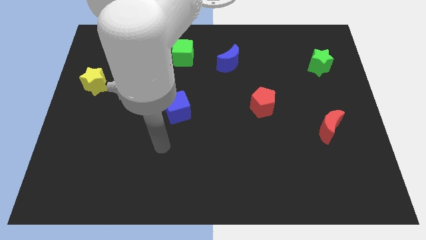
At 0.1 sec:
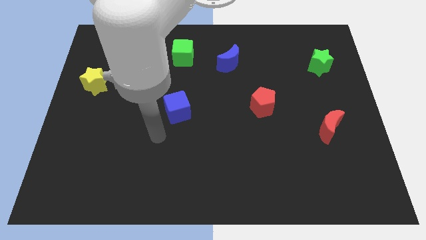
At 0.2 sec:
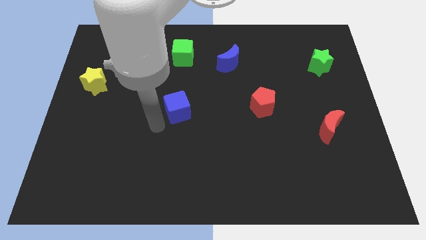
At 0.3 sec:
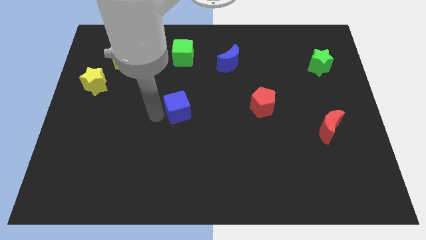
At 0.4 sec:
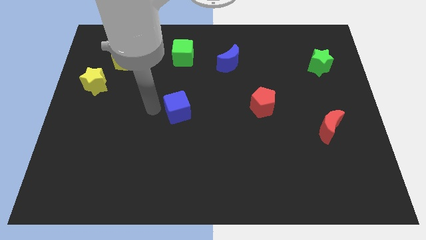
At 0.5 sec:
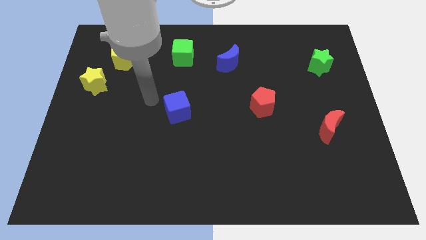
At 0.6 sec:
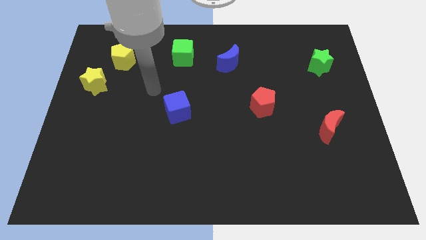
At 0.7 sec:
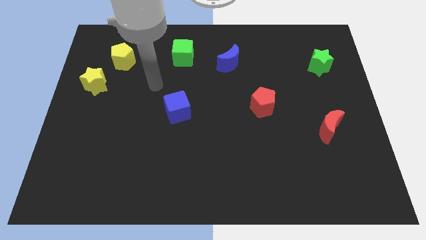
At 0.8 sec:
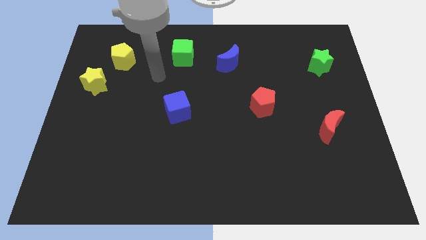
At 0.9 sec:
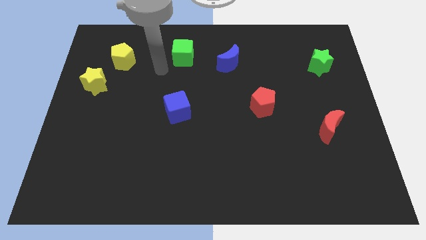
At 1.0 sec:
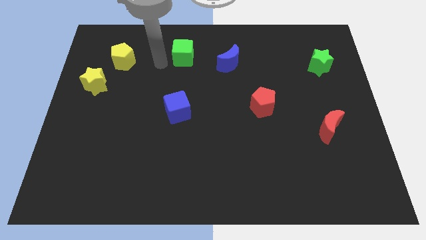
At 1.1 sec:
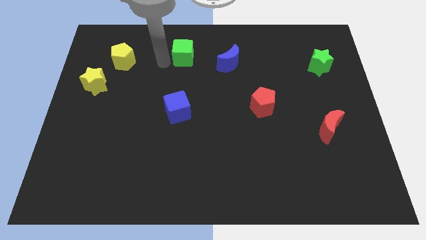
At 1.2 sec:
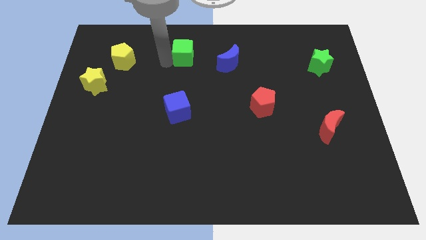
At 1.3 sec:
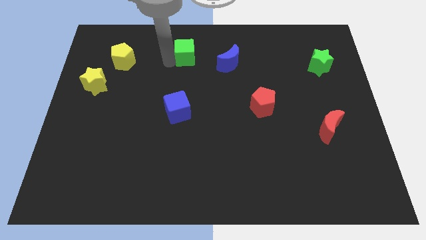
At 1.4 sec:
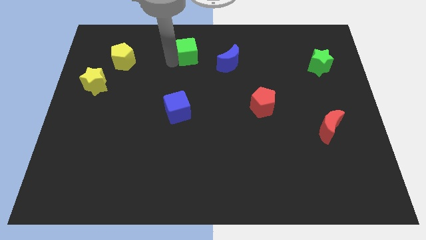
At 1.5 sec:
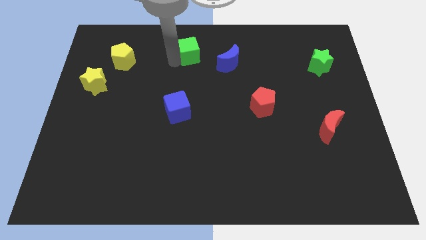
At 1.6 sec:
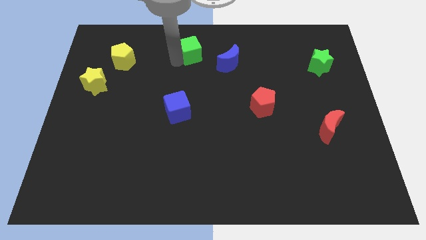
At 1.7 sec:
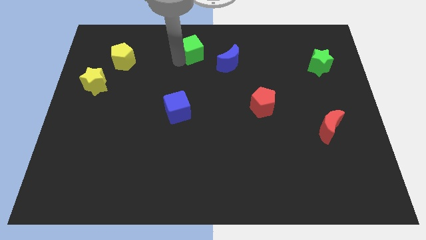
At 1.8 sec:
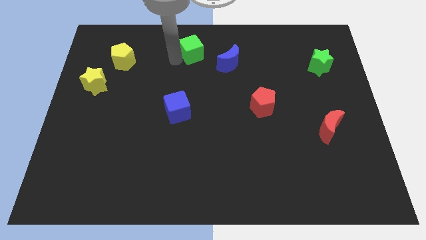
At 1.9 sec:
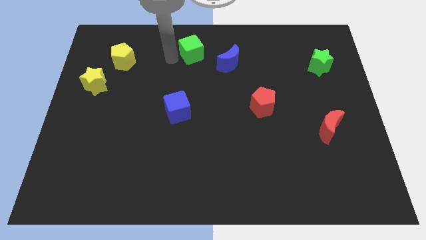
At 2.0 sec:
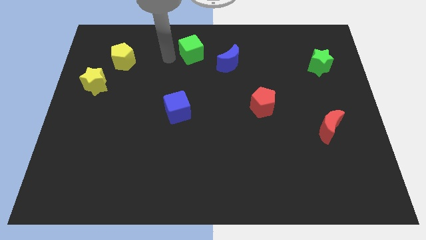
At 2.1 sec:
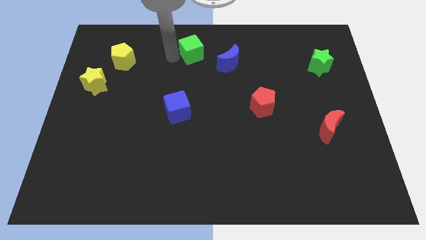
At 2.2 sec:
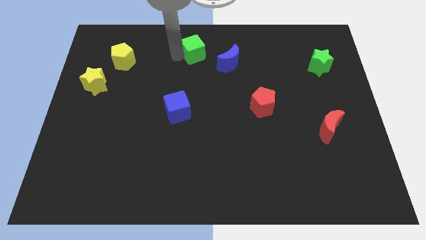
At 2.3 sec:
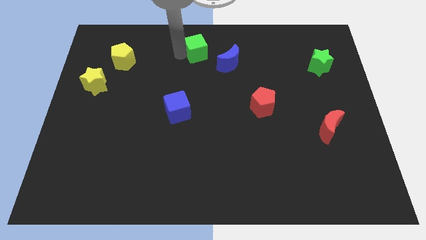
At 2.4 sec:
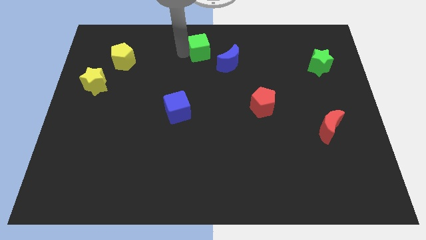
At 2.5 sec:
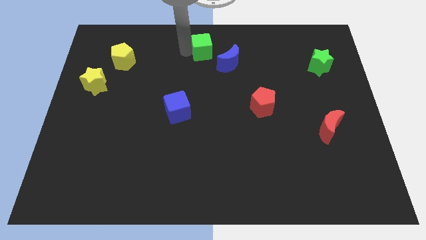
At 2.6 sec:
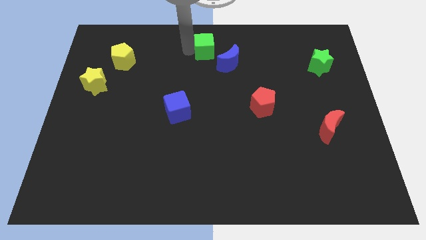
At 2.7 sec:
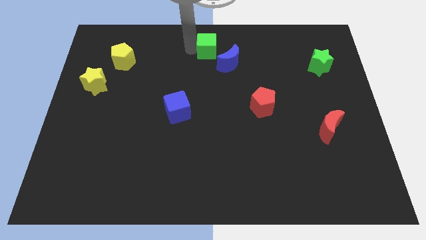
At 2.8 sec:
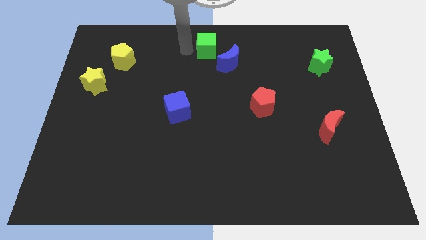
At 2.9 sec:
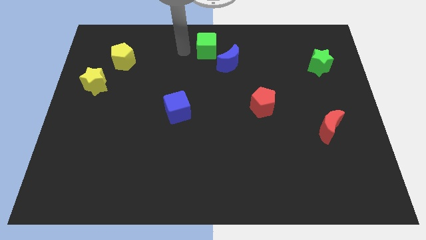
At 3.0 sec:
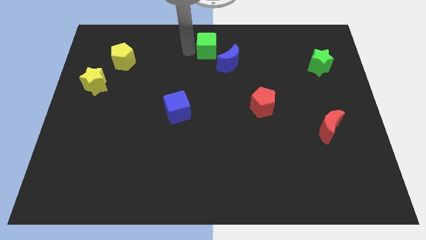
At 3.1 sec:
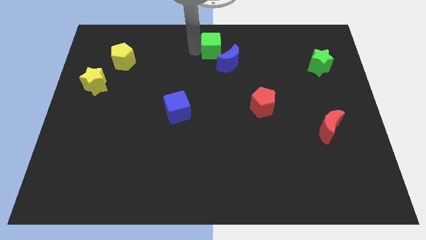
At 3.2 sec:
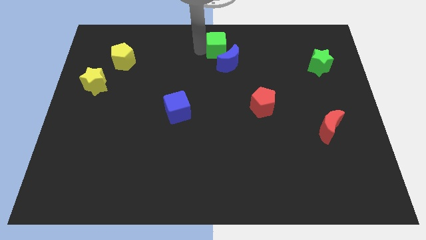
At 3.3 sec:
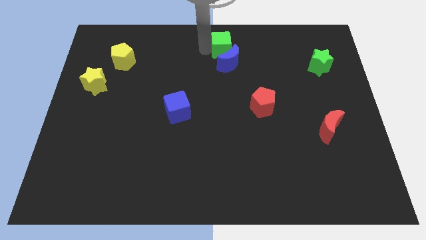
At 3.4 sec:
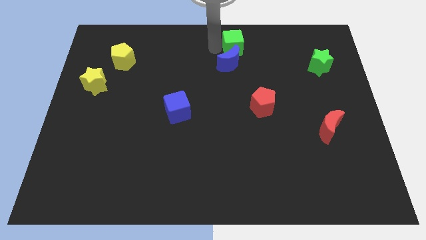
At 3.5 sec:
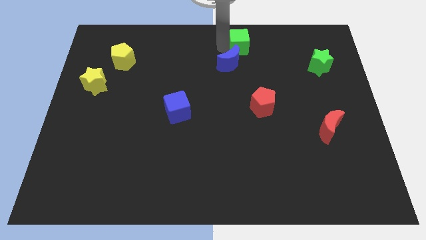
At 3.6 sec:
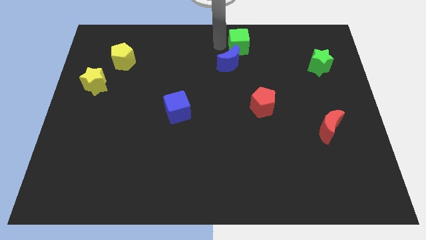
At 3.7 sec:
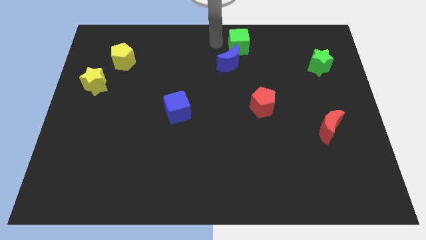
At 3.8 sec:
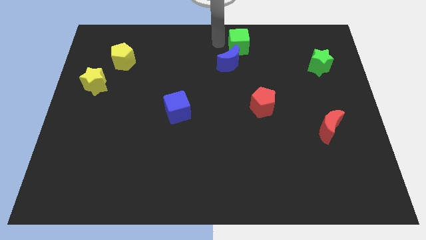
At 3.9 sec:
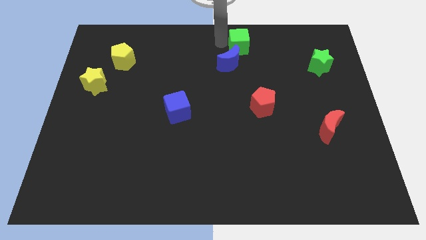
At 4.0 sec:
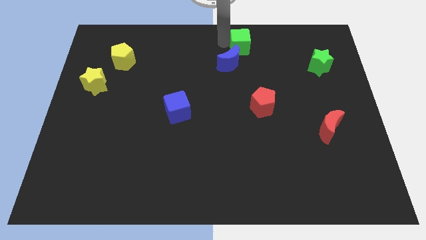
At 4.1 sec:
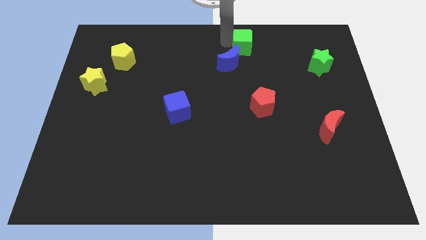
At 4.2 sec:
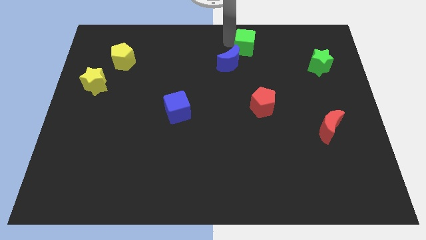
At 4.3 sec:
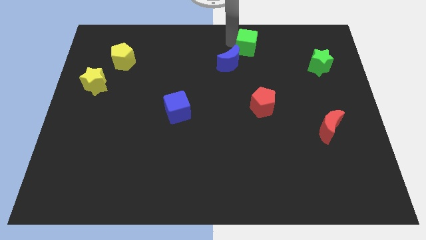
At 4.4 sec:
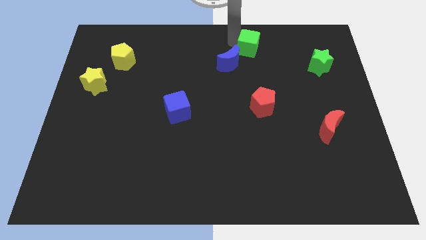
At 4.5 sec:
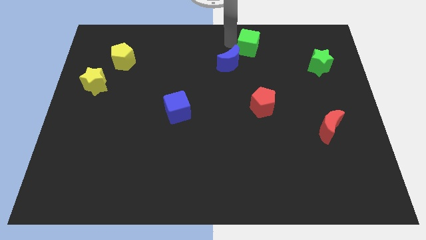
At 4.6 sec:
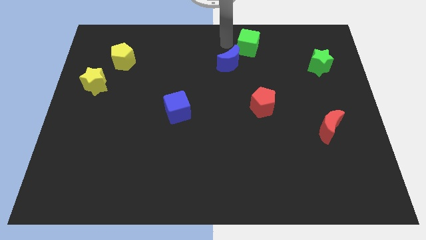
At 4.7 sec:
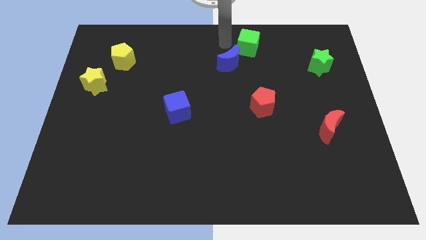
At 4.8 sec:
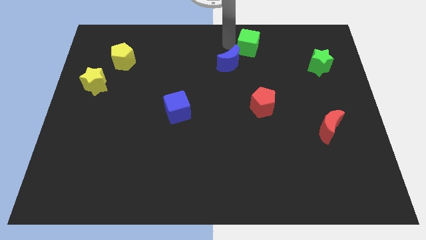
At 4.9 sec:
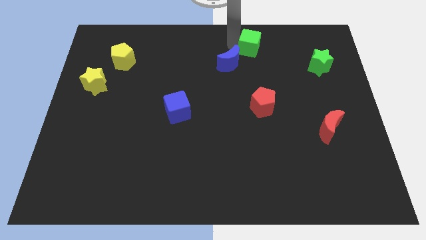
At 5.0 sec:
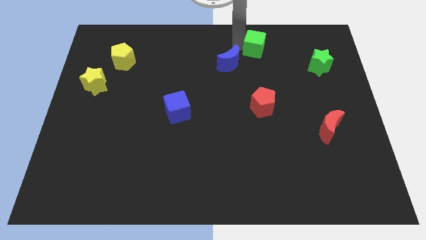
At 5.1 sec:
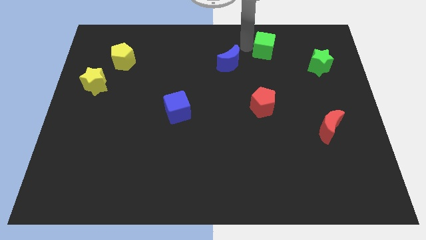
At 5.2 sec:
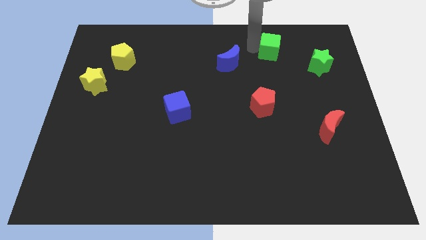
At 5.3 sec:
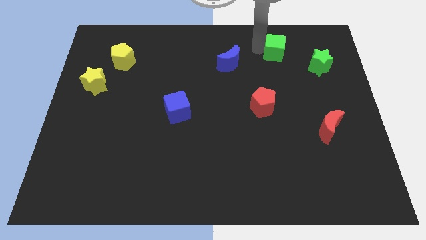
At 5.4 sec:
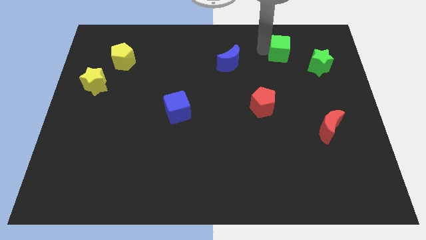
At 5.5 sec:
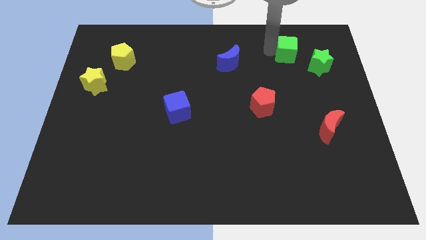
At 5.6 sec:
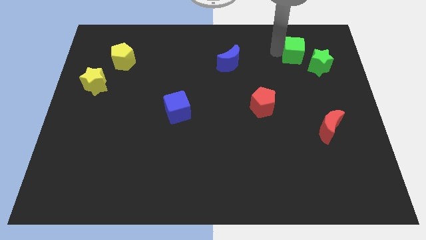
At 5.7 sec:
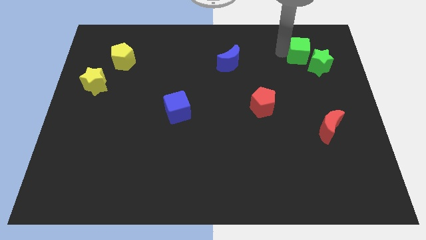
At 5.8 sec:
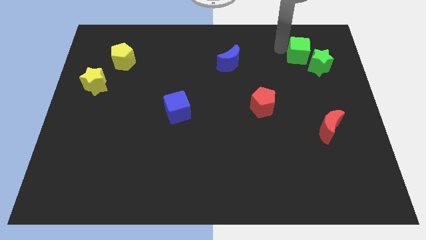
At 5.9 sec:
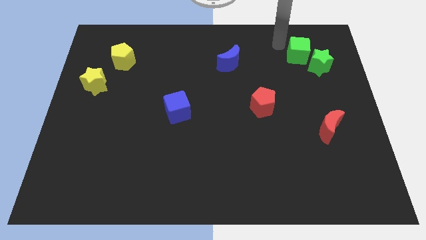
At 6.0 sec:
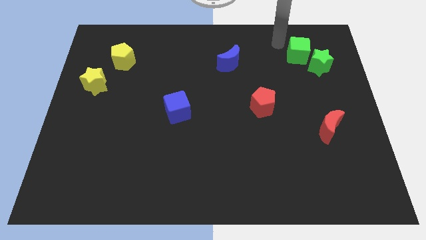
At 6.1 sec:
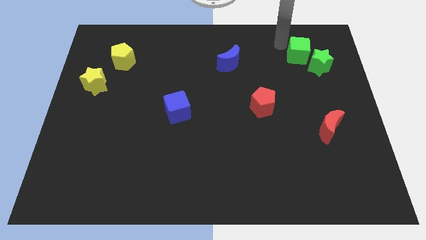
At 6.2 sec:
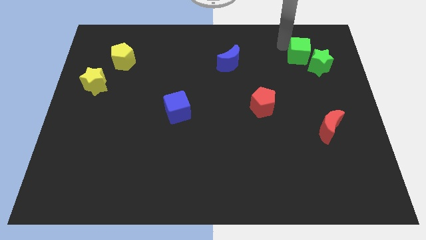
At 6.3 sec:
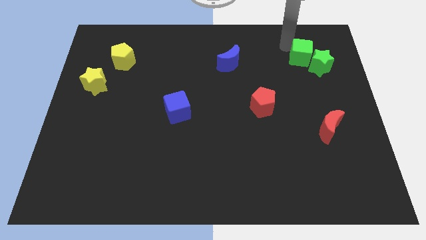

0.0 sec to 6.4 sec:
move the green cube close to the green star

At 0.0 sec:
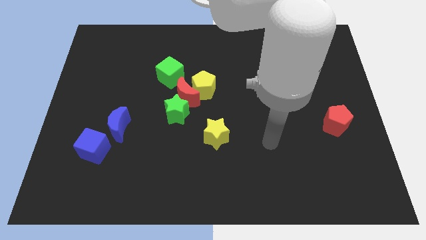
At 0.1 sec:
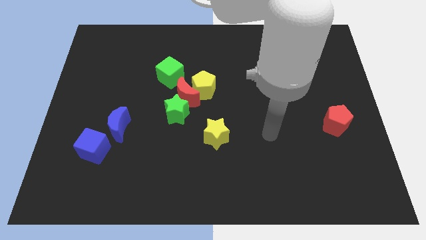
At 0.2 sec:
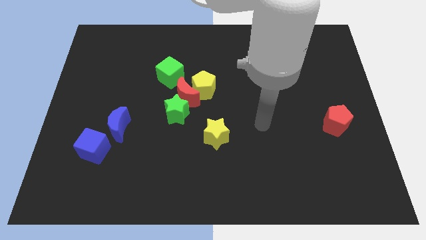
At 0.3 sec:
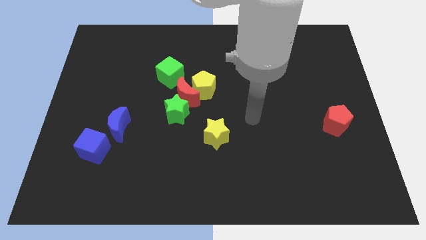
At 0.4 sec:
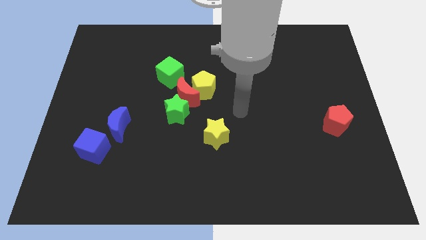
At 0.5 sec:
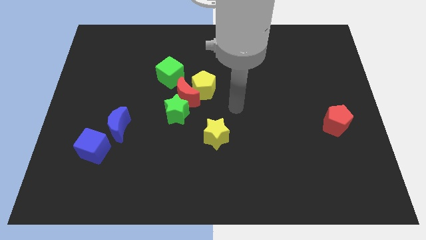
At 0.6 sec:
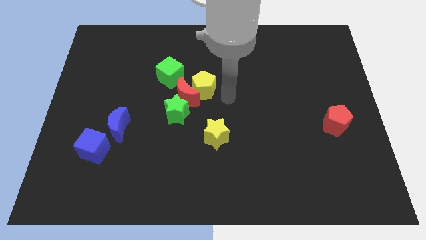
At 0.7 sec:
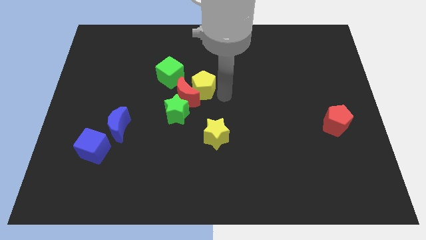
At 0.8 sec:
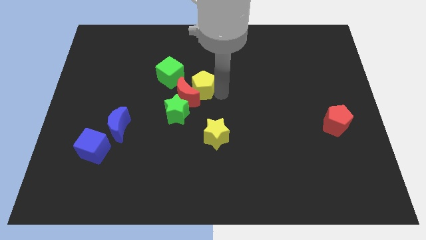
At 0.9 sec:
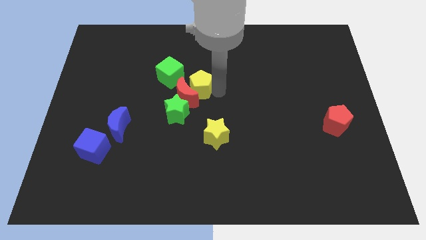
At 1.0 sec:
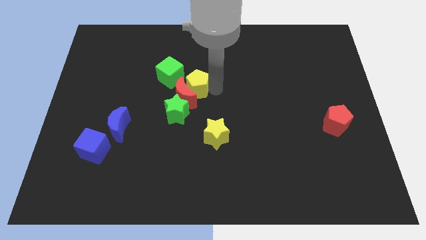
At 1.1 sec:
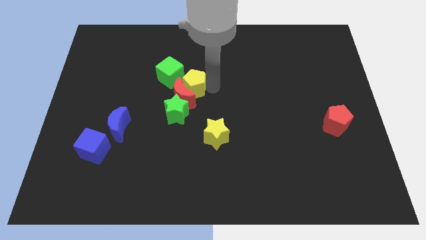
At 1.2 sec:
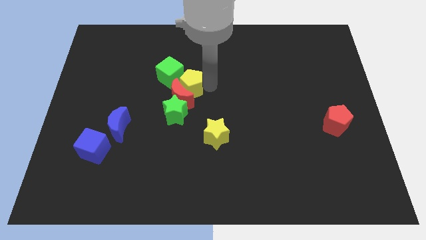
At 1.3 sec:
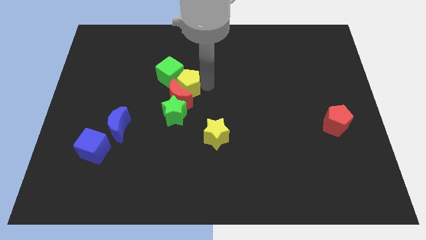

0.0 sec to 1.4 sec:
put the yellow pentagon towards the green cube
